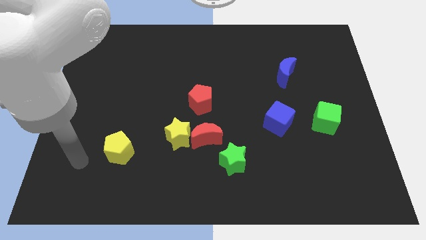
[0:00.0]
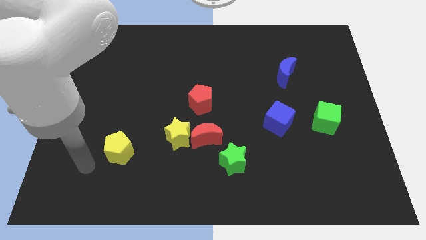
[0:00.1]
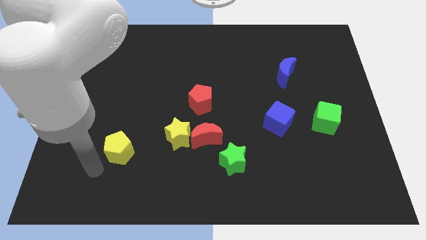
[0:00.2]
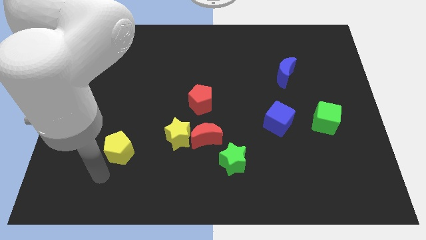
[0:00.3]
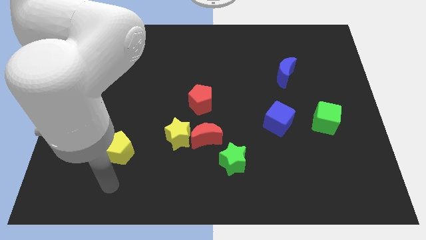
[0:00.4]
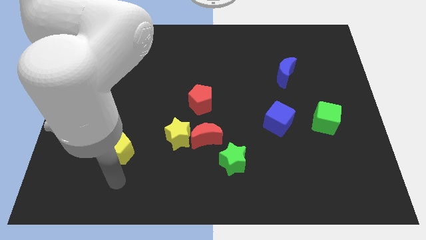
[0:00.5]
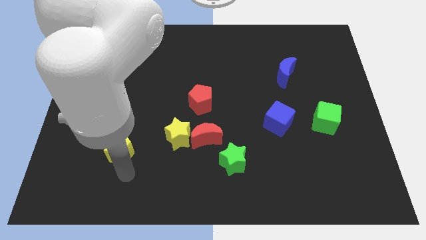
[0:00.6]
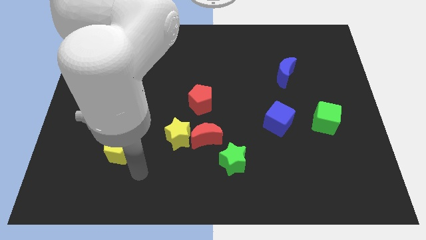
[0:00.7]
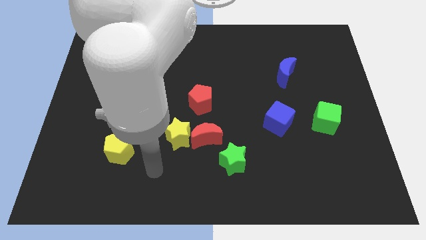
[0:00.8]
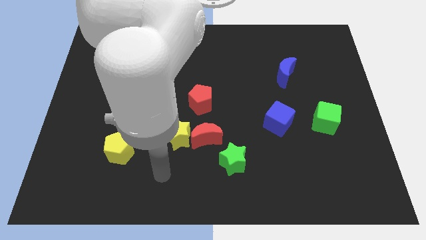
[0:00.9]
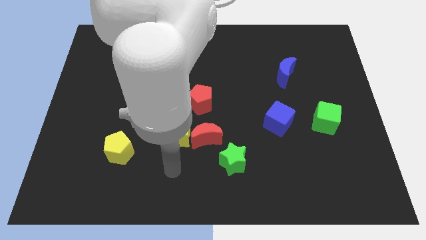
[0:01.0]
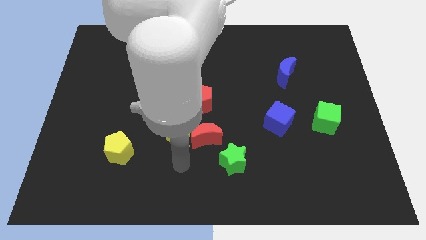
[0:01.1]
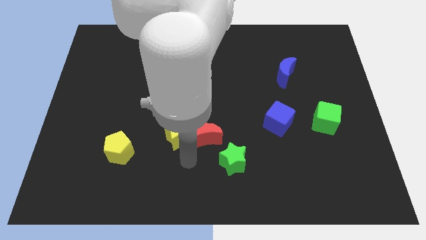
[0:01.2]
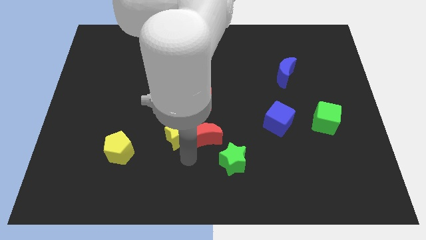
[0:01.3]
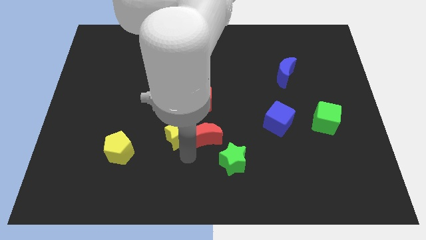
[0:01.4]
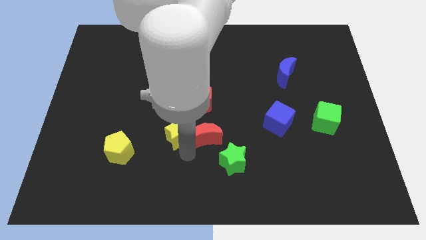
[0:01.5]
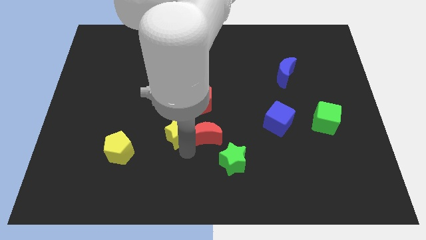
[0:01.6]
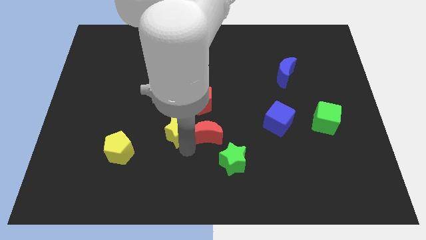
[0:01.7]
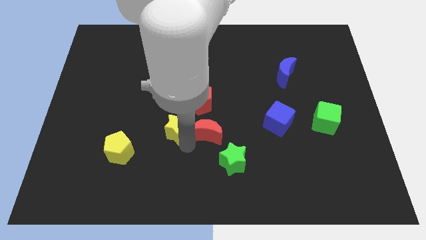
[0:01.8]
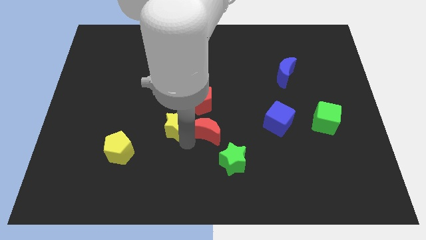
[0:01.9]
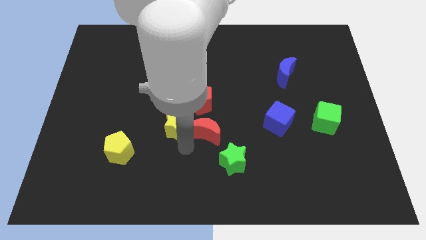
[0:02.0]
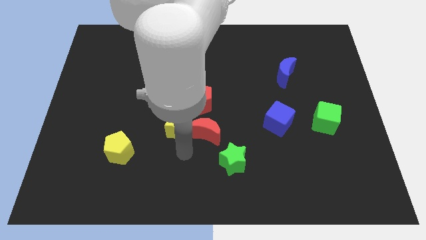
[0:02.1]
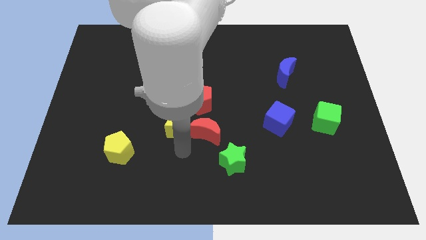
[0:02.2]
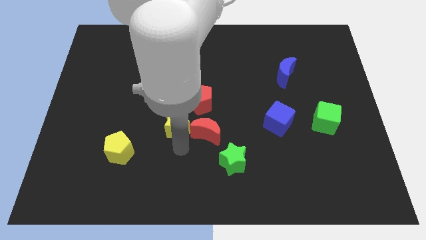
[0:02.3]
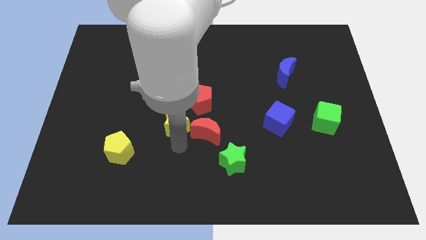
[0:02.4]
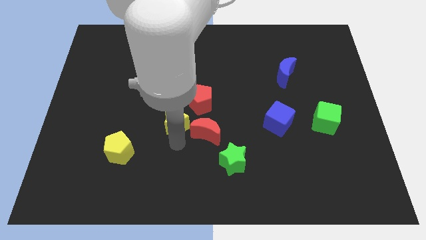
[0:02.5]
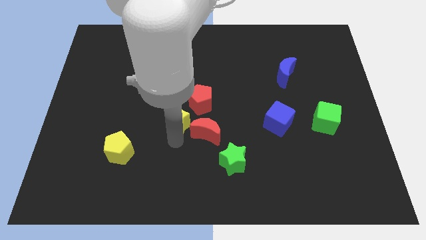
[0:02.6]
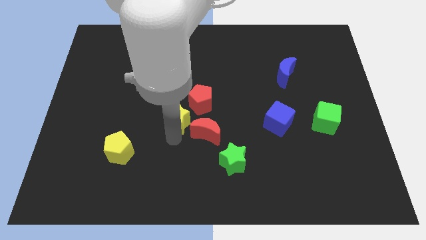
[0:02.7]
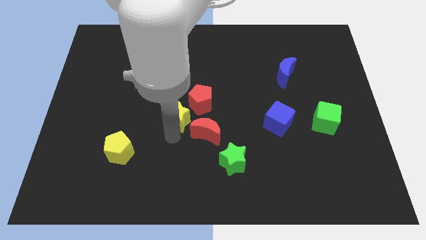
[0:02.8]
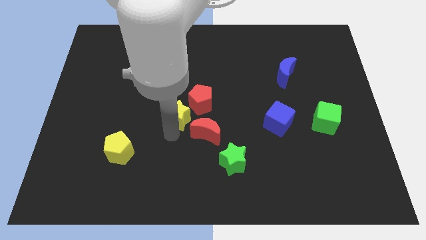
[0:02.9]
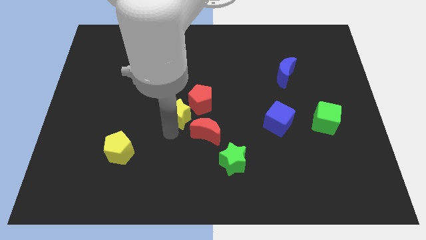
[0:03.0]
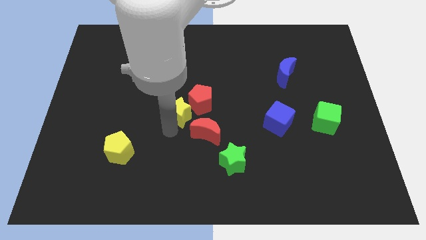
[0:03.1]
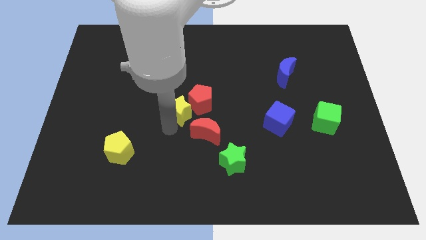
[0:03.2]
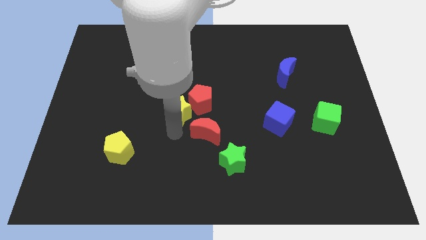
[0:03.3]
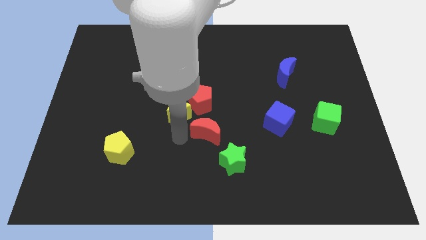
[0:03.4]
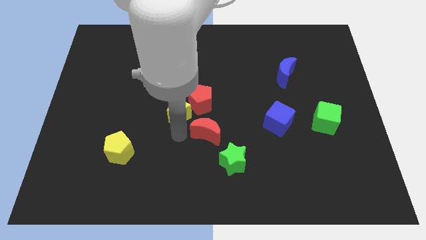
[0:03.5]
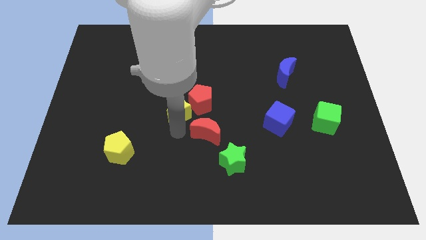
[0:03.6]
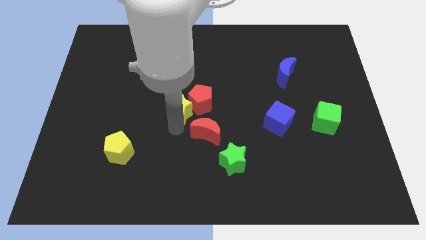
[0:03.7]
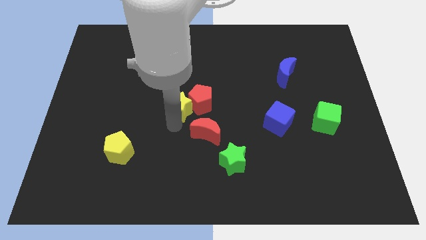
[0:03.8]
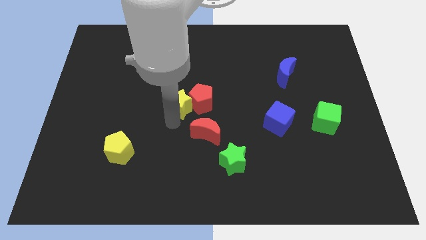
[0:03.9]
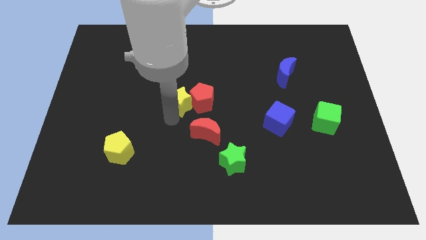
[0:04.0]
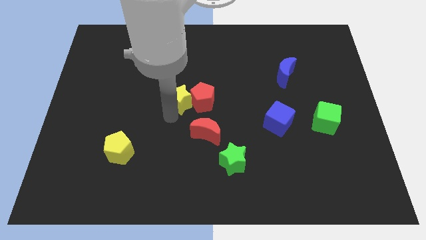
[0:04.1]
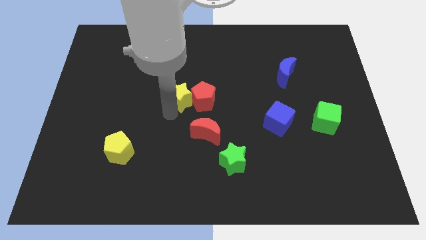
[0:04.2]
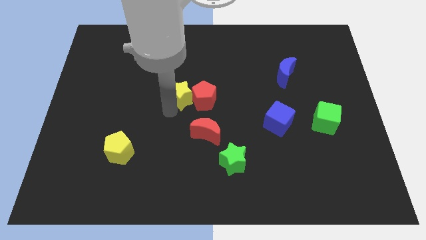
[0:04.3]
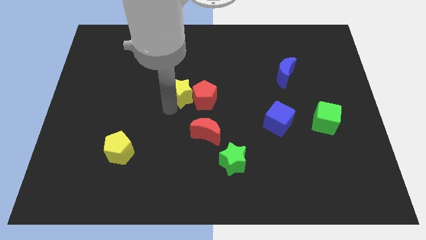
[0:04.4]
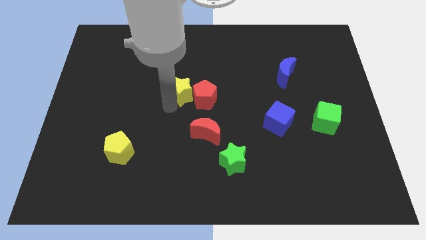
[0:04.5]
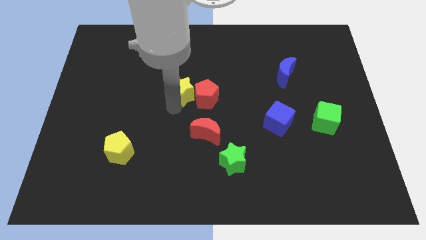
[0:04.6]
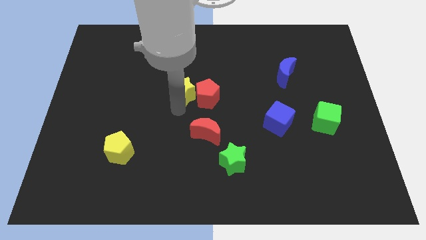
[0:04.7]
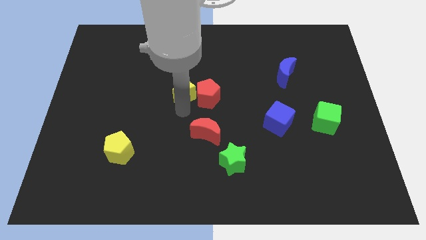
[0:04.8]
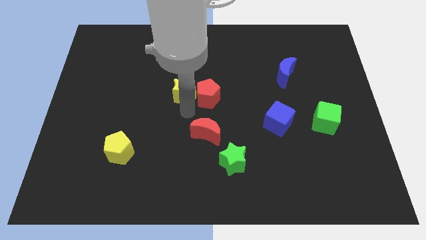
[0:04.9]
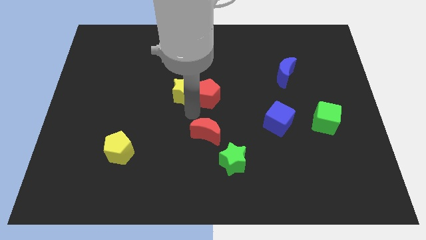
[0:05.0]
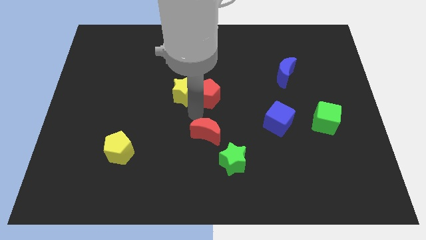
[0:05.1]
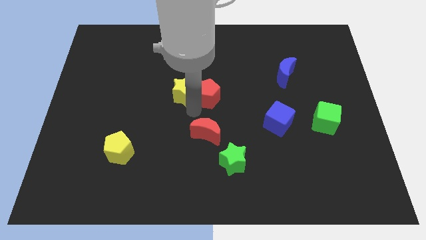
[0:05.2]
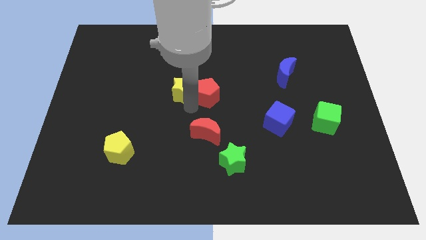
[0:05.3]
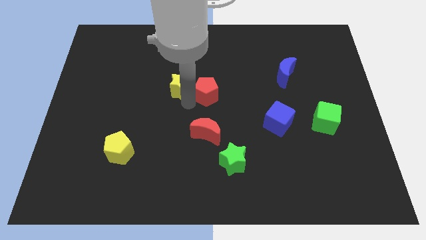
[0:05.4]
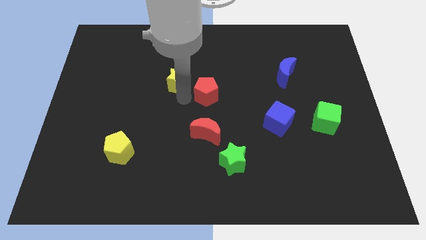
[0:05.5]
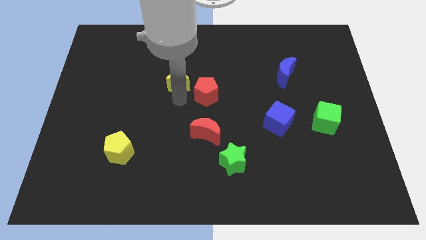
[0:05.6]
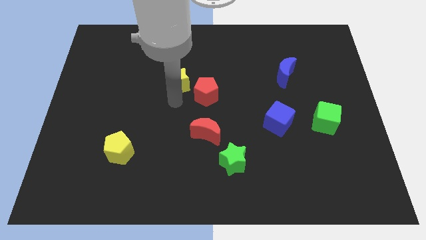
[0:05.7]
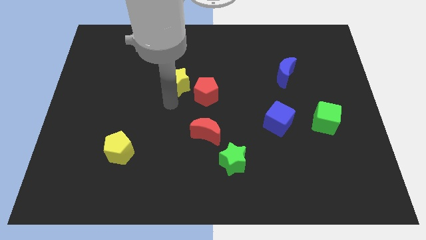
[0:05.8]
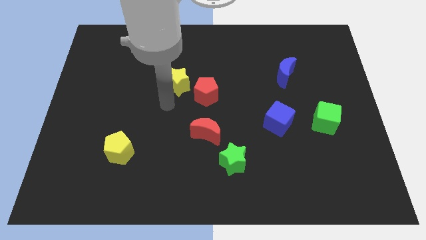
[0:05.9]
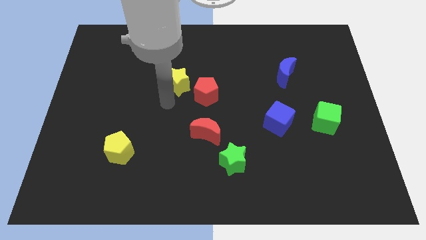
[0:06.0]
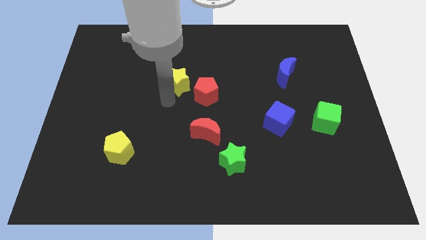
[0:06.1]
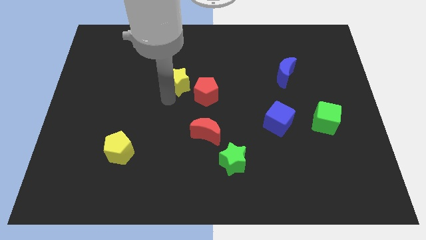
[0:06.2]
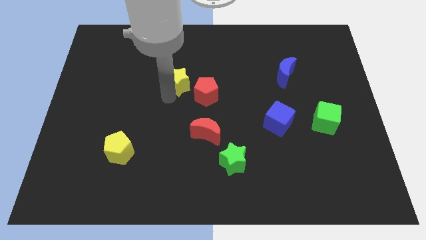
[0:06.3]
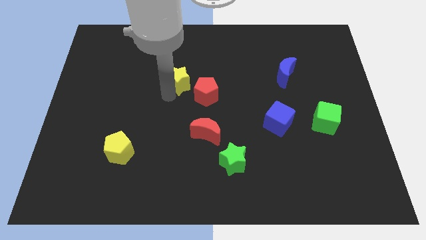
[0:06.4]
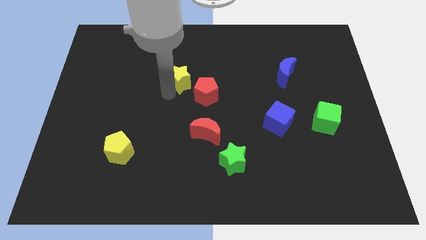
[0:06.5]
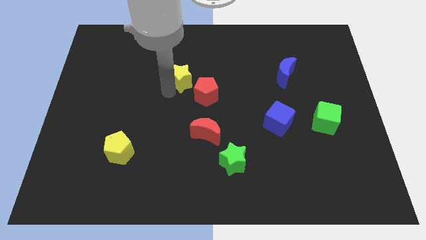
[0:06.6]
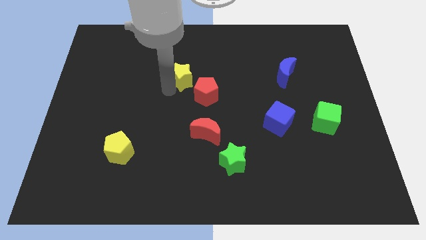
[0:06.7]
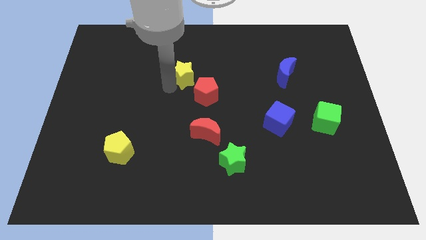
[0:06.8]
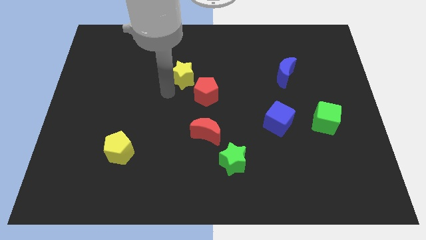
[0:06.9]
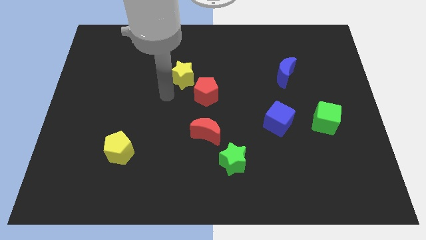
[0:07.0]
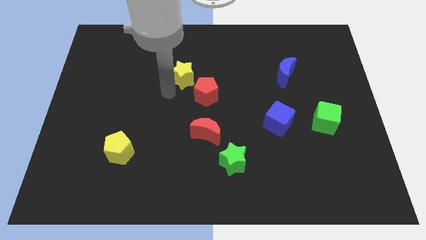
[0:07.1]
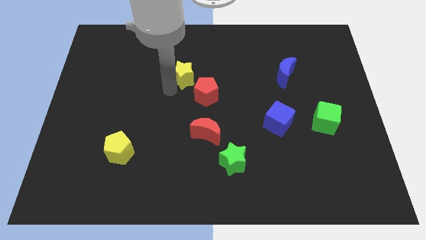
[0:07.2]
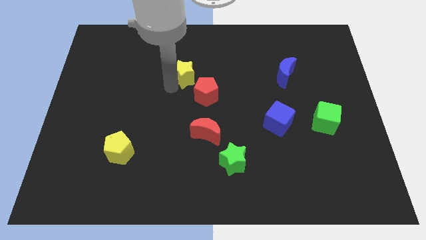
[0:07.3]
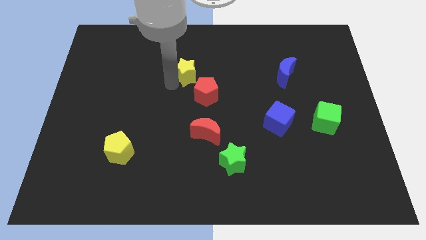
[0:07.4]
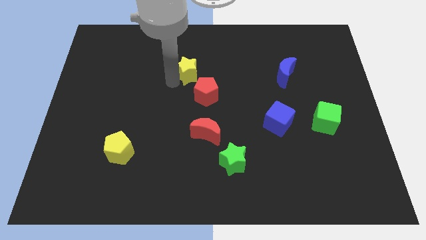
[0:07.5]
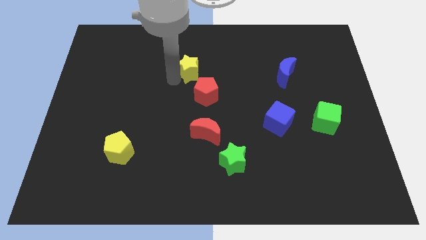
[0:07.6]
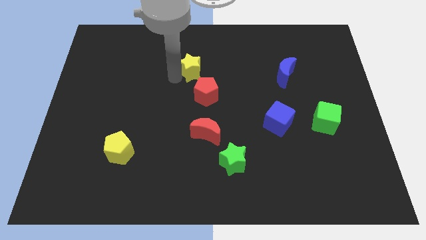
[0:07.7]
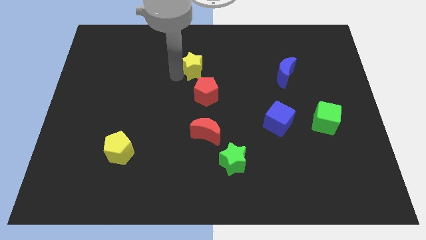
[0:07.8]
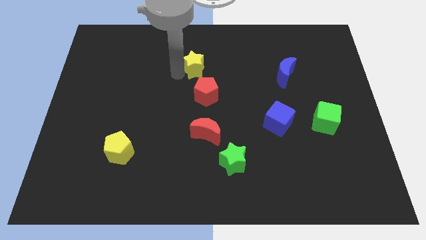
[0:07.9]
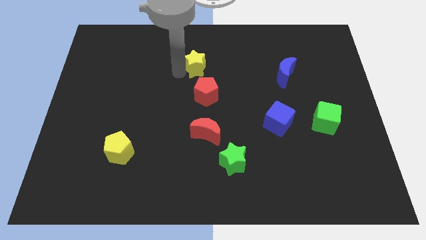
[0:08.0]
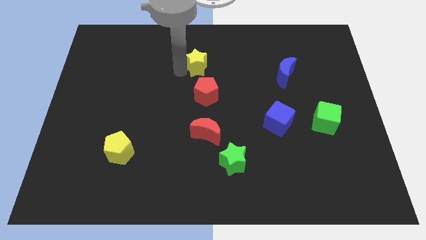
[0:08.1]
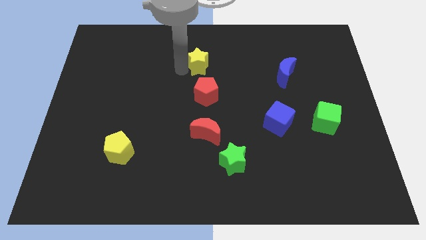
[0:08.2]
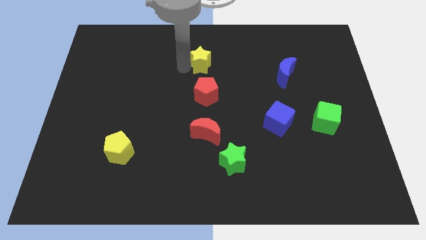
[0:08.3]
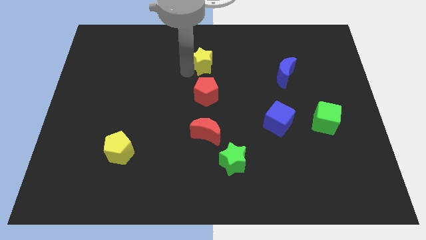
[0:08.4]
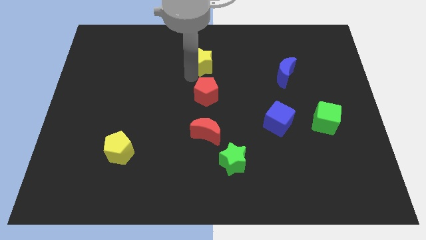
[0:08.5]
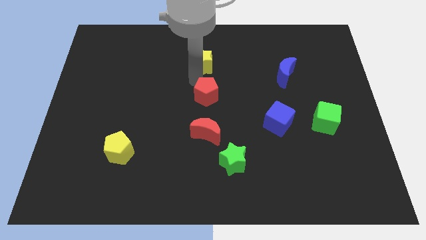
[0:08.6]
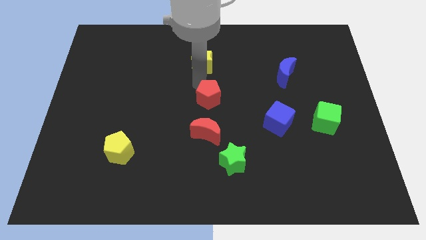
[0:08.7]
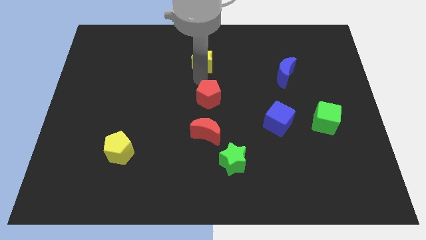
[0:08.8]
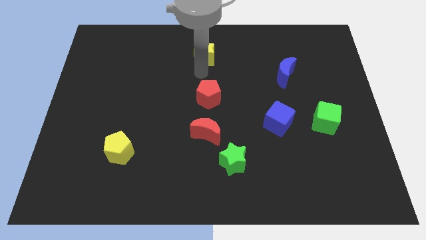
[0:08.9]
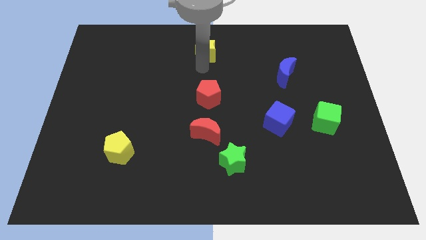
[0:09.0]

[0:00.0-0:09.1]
push the yellow star to the top side
